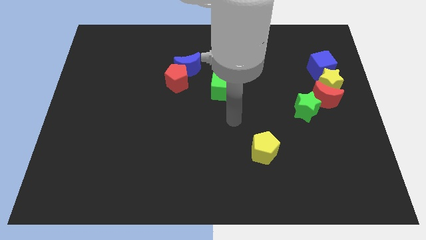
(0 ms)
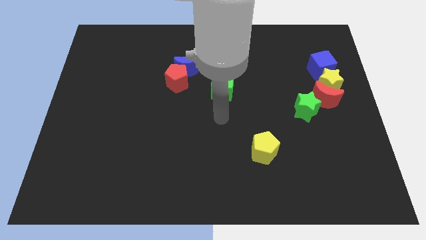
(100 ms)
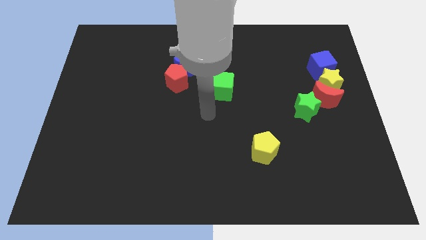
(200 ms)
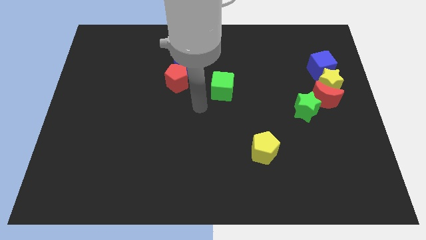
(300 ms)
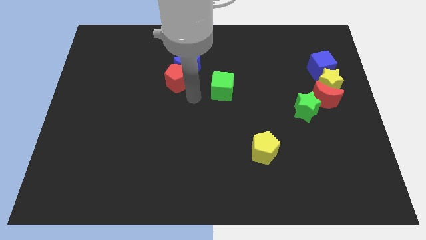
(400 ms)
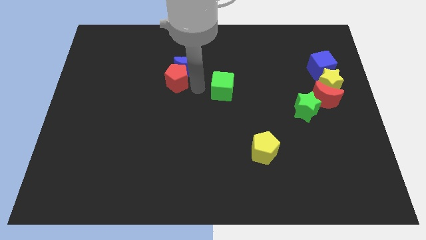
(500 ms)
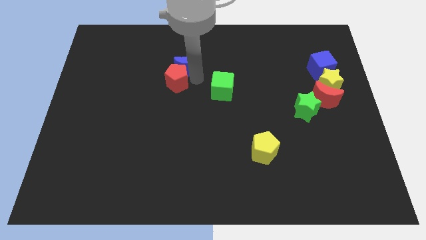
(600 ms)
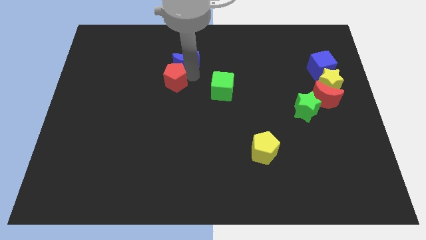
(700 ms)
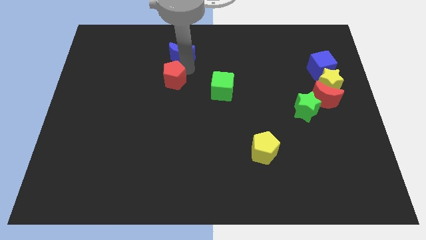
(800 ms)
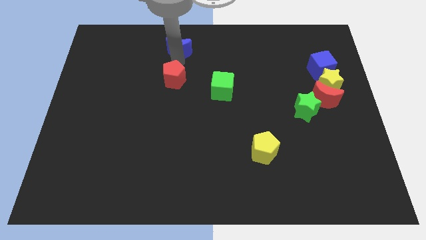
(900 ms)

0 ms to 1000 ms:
separate the red pentagon from the blue moon

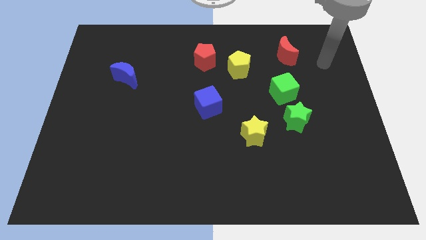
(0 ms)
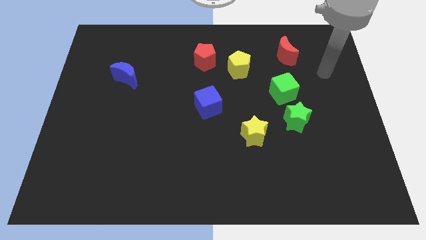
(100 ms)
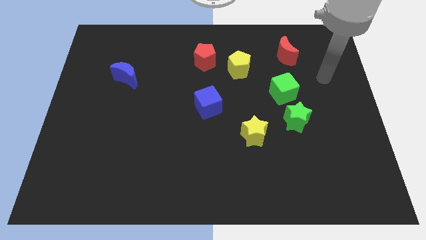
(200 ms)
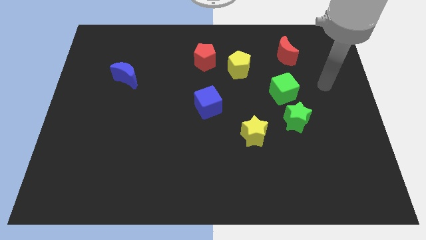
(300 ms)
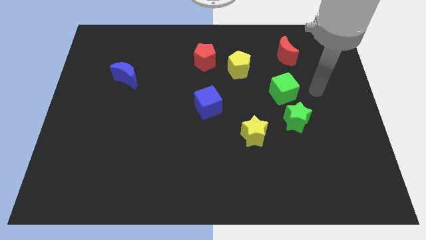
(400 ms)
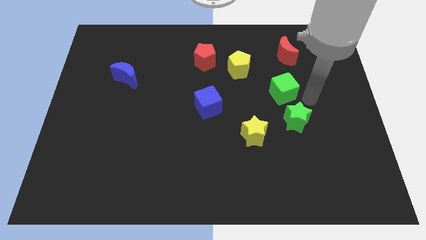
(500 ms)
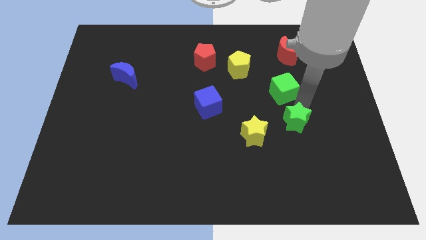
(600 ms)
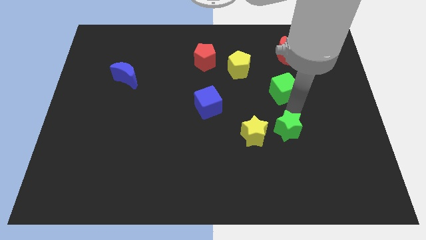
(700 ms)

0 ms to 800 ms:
move the green cube away from the green star

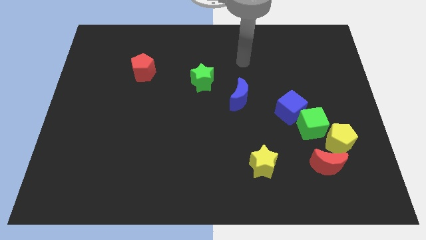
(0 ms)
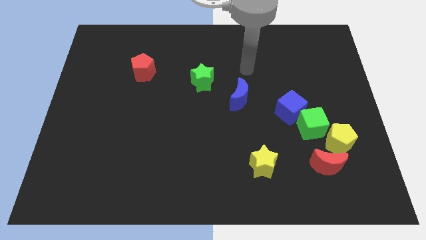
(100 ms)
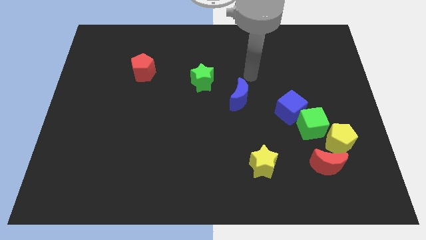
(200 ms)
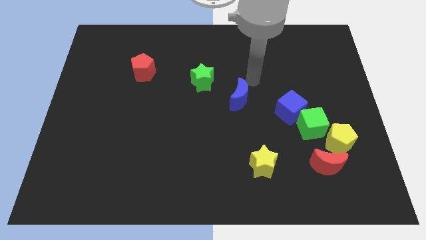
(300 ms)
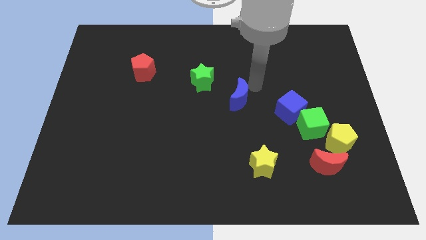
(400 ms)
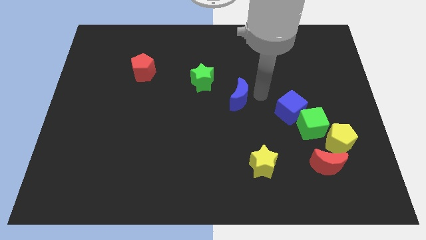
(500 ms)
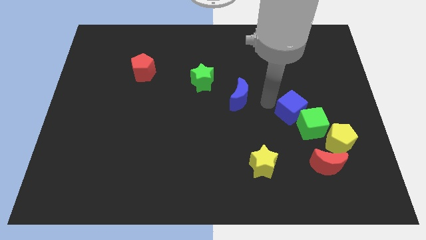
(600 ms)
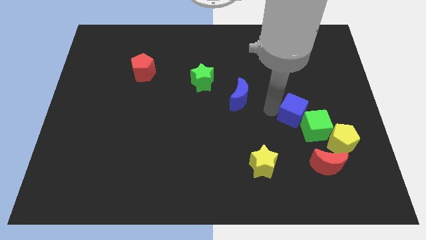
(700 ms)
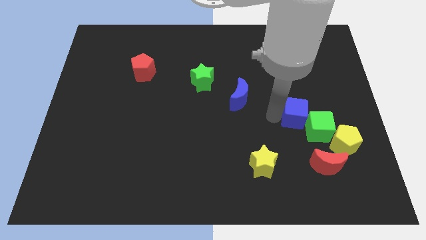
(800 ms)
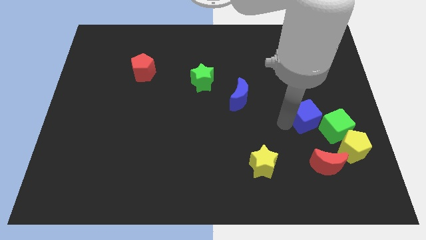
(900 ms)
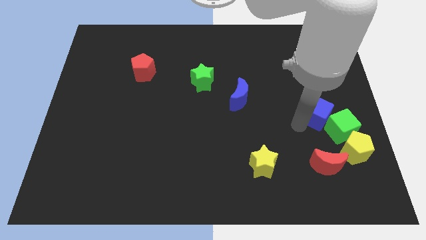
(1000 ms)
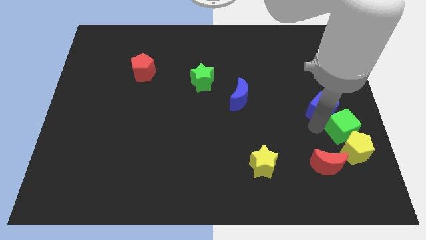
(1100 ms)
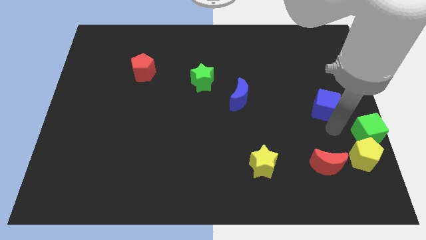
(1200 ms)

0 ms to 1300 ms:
pull the blue cube apart from the green cube

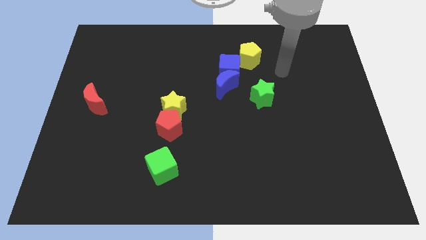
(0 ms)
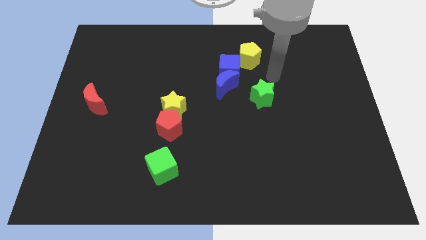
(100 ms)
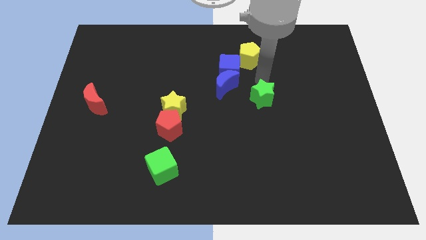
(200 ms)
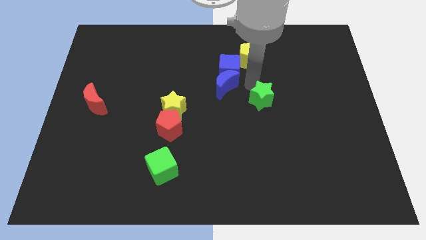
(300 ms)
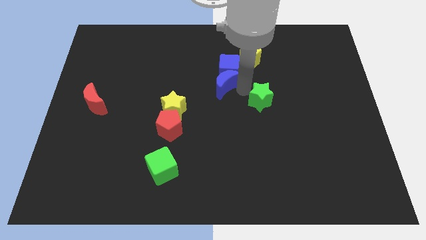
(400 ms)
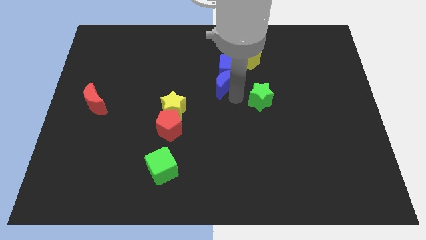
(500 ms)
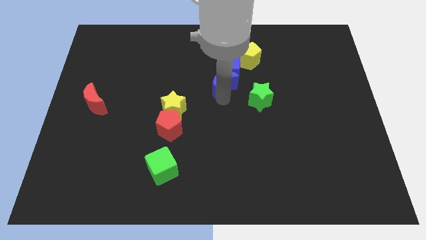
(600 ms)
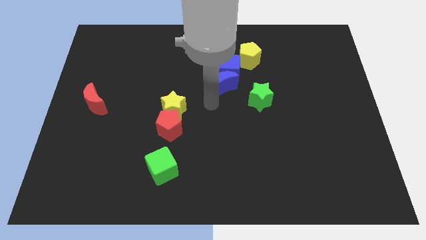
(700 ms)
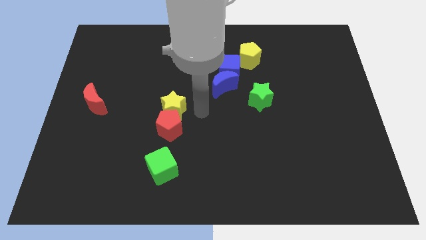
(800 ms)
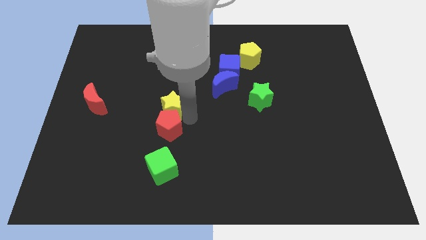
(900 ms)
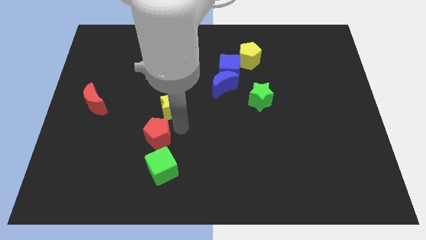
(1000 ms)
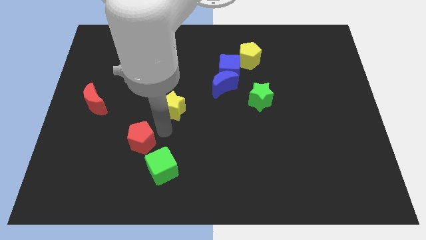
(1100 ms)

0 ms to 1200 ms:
separate the yellow star from the red pentagon

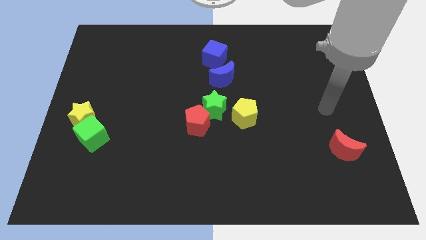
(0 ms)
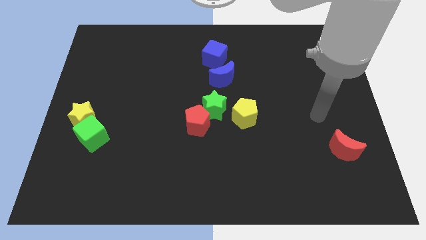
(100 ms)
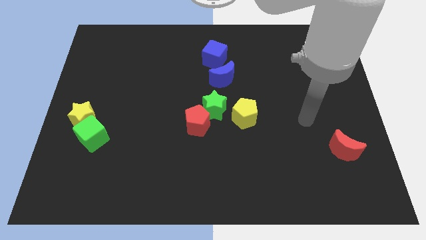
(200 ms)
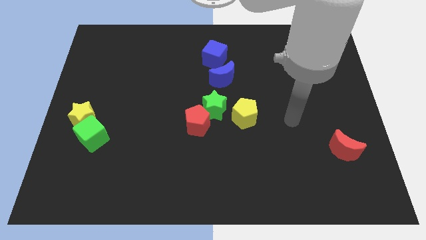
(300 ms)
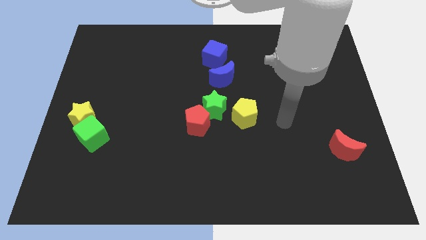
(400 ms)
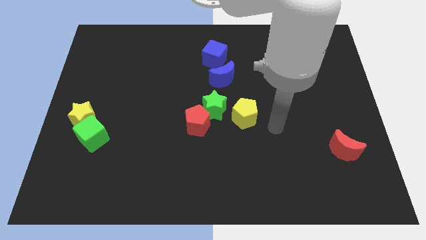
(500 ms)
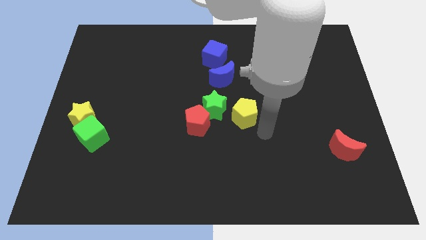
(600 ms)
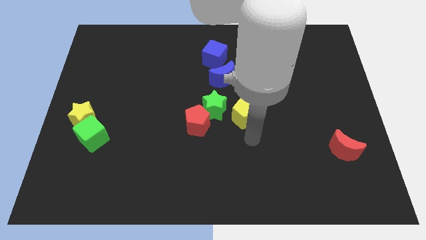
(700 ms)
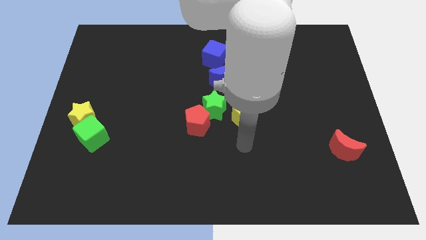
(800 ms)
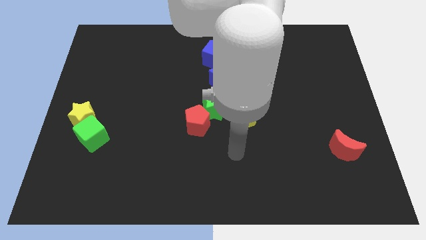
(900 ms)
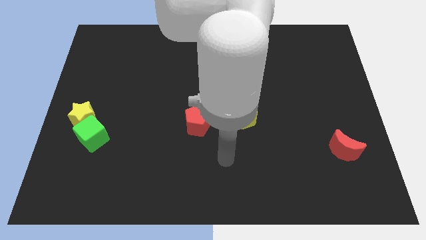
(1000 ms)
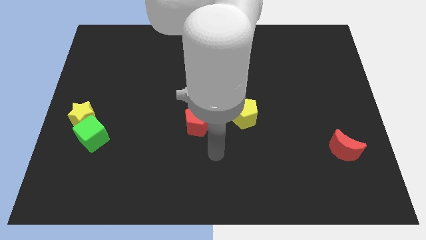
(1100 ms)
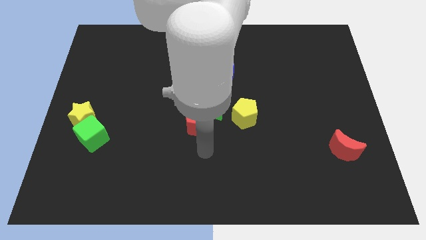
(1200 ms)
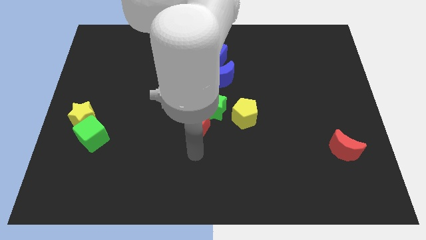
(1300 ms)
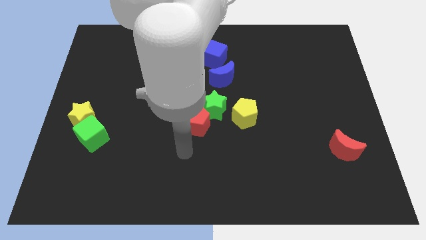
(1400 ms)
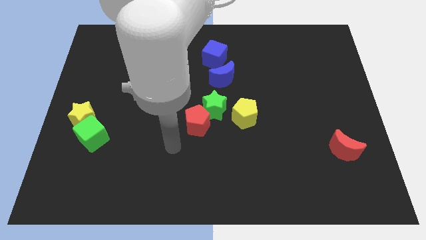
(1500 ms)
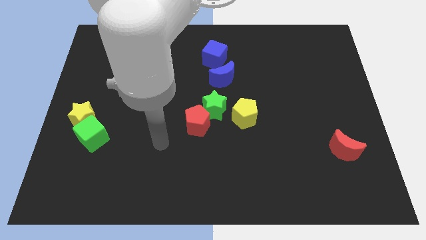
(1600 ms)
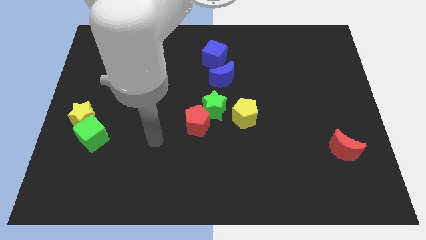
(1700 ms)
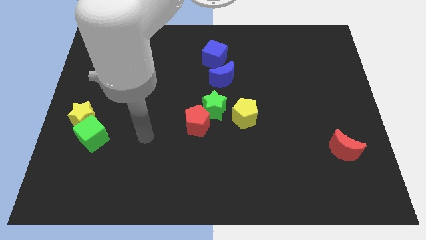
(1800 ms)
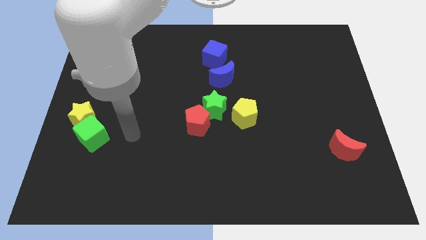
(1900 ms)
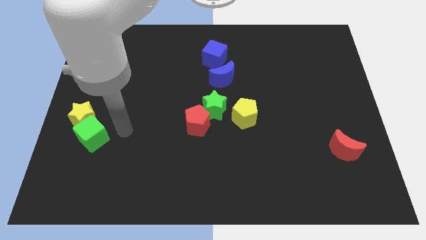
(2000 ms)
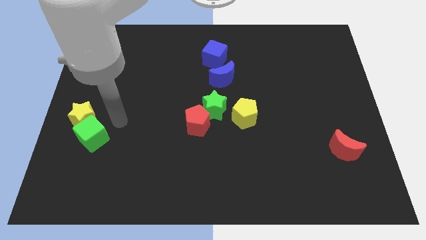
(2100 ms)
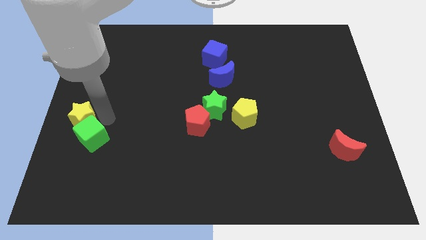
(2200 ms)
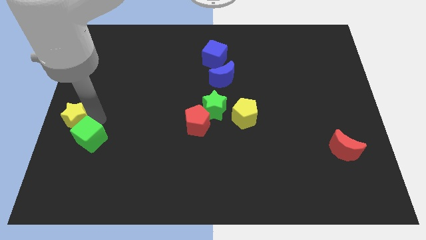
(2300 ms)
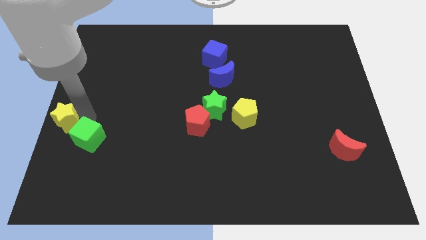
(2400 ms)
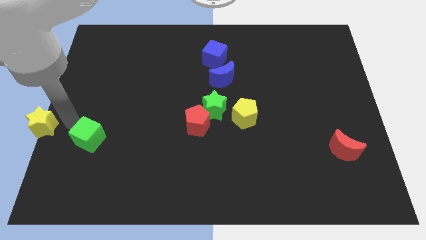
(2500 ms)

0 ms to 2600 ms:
separate the green cube from the yellow star

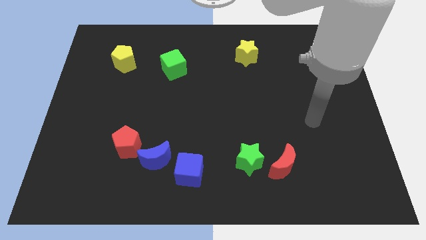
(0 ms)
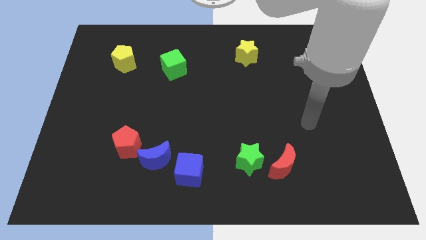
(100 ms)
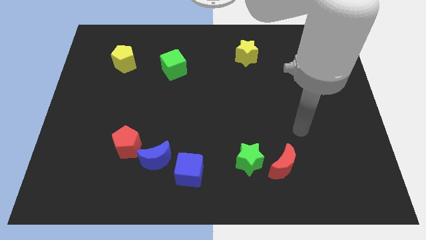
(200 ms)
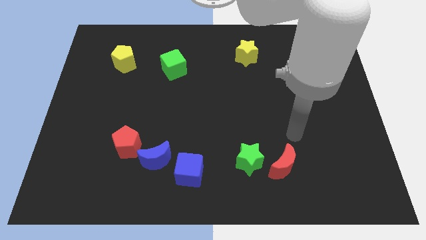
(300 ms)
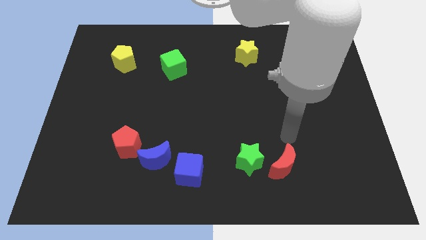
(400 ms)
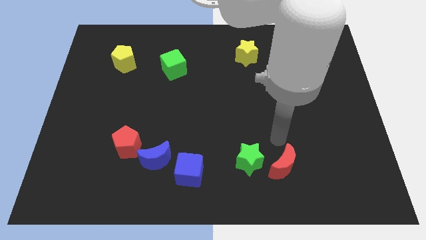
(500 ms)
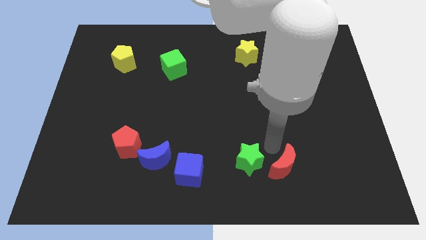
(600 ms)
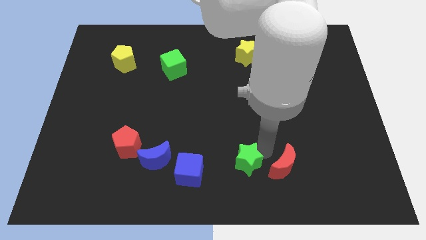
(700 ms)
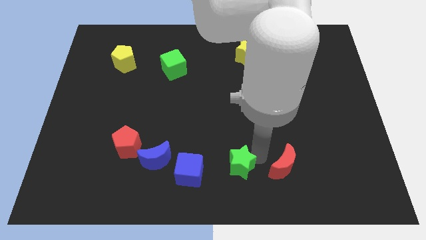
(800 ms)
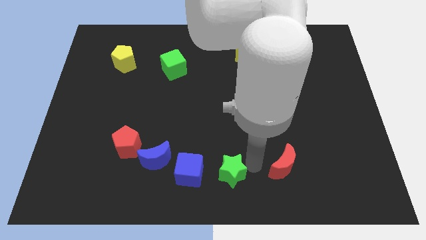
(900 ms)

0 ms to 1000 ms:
move the red moon away from the green star

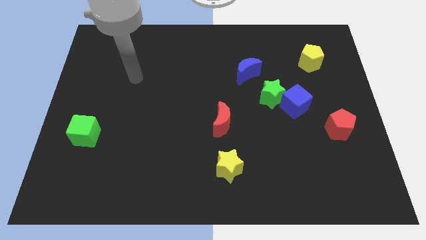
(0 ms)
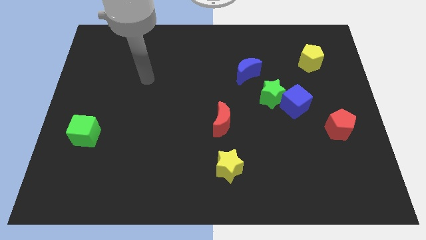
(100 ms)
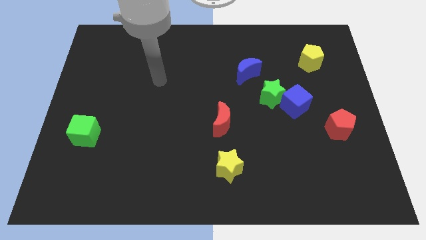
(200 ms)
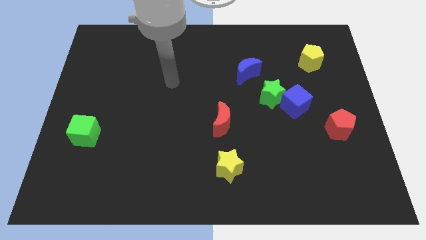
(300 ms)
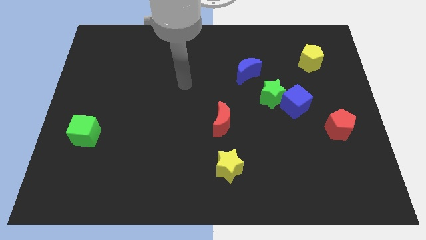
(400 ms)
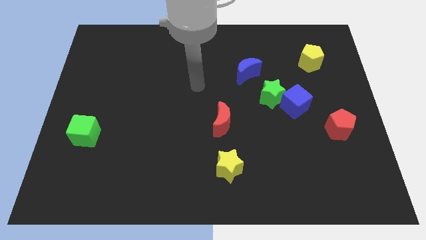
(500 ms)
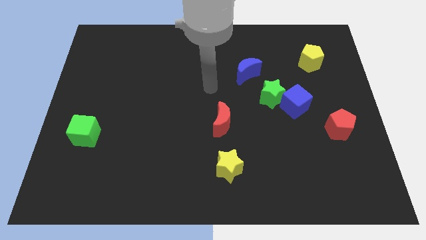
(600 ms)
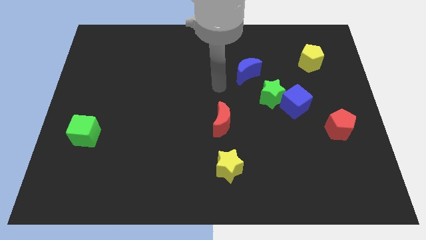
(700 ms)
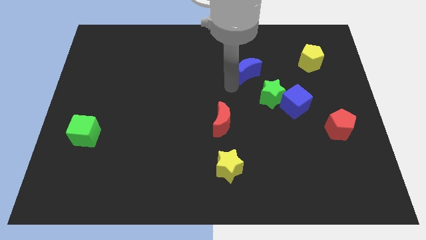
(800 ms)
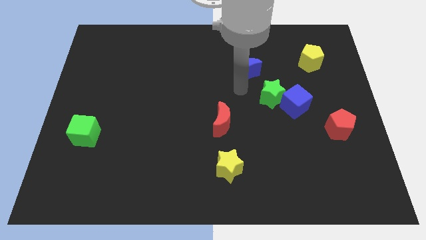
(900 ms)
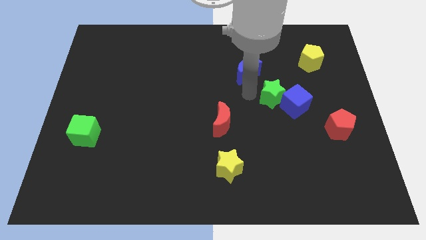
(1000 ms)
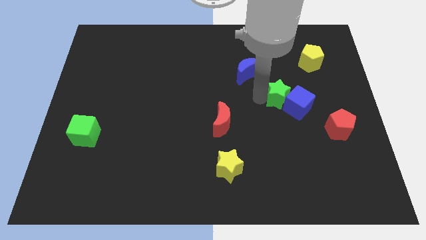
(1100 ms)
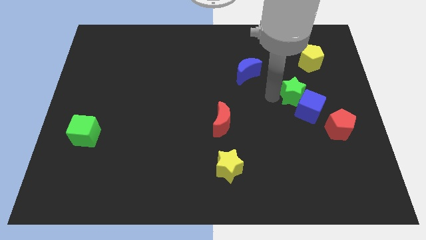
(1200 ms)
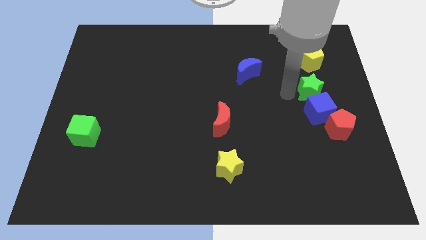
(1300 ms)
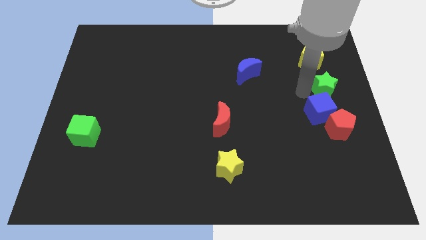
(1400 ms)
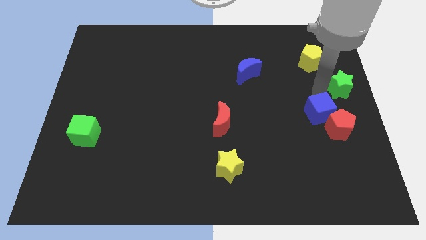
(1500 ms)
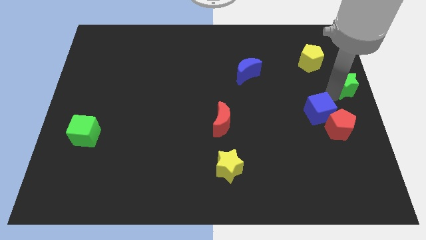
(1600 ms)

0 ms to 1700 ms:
move the blue cube away from the green star
